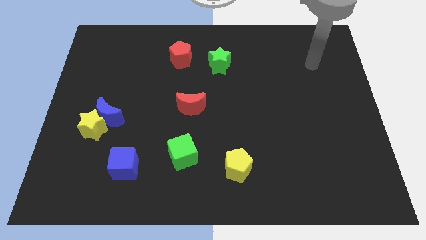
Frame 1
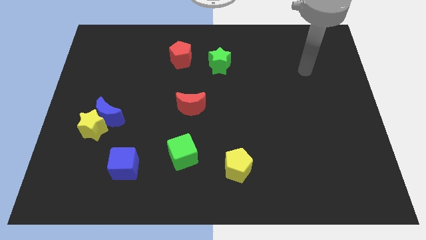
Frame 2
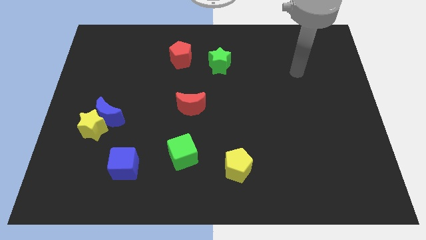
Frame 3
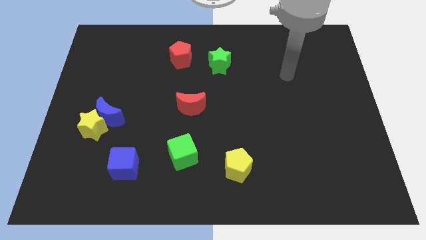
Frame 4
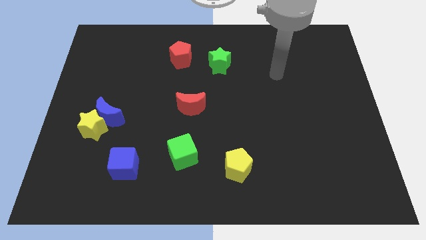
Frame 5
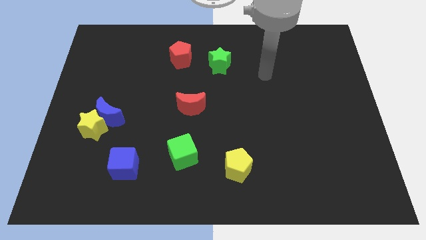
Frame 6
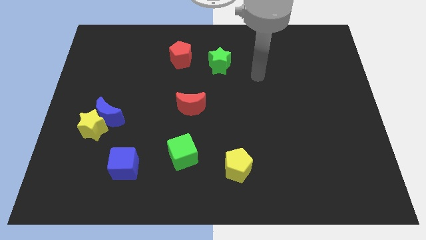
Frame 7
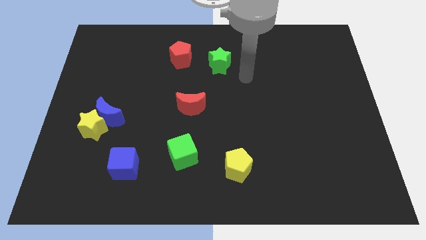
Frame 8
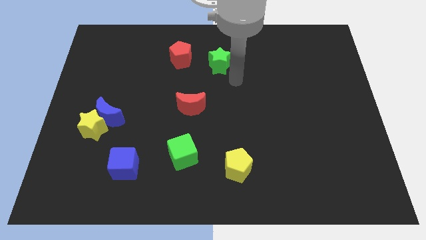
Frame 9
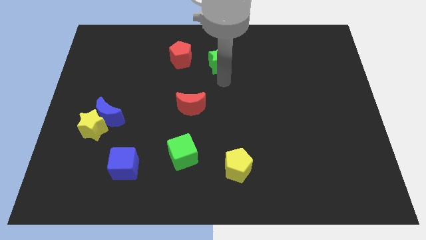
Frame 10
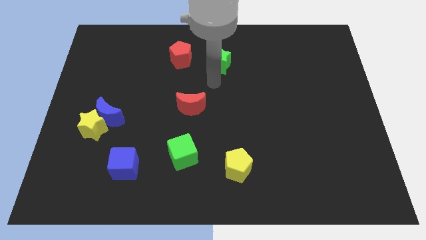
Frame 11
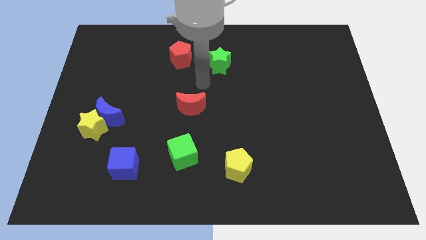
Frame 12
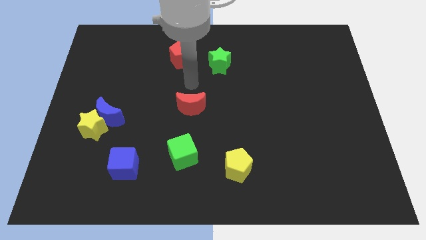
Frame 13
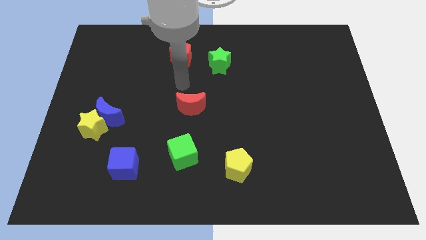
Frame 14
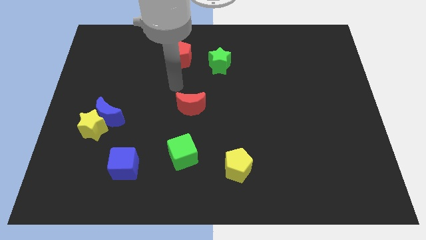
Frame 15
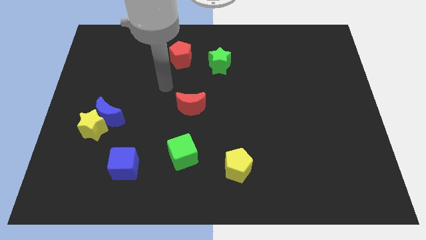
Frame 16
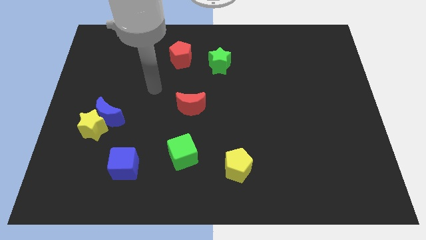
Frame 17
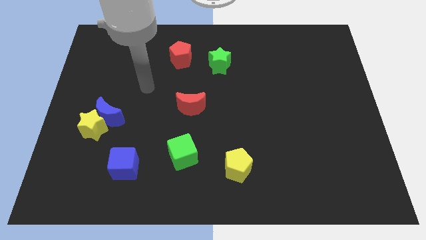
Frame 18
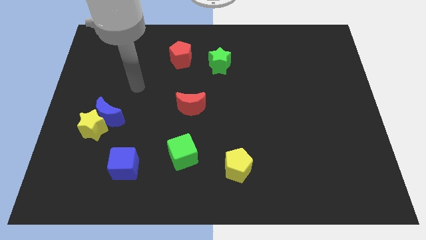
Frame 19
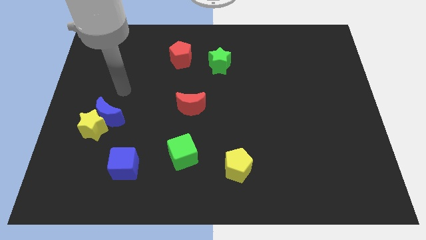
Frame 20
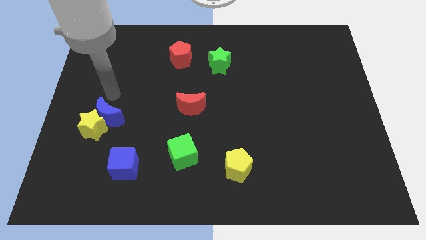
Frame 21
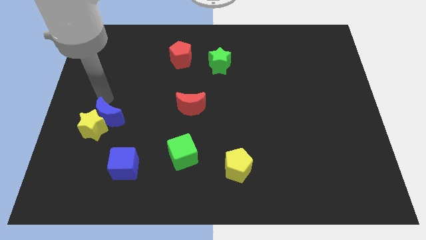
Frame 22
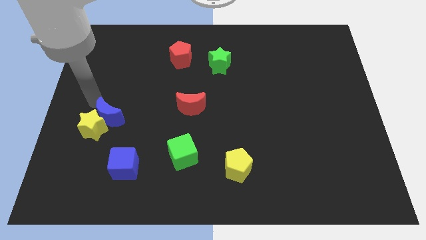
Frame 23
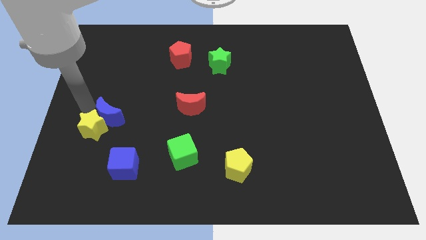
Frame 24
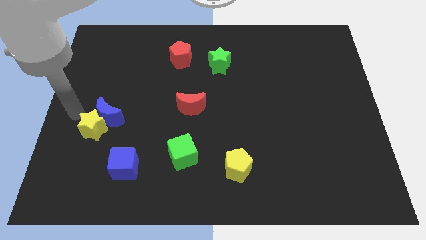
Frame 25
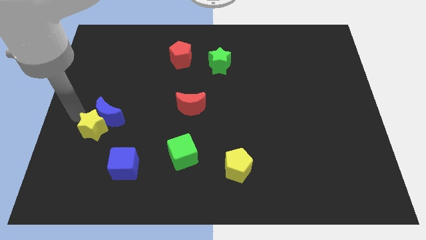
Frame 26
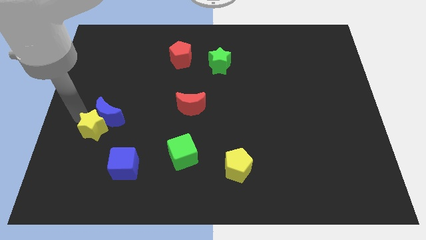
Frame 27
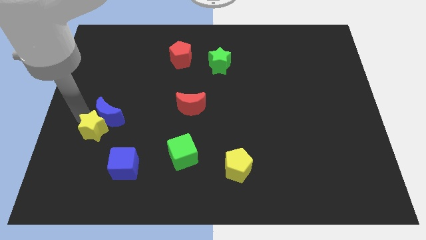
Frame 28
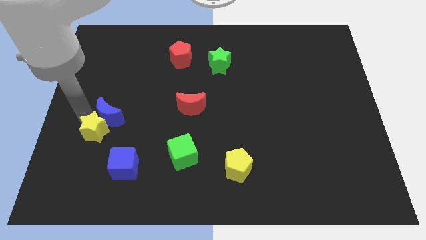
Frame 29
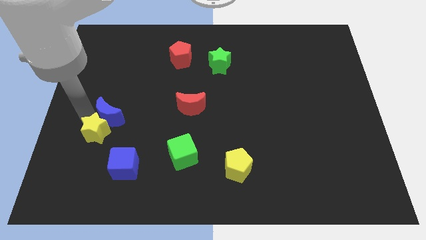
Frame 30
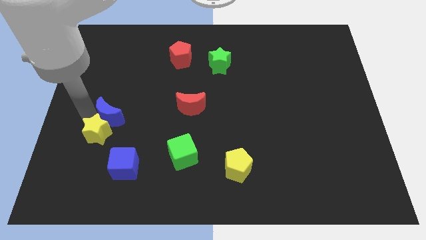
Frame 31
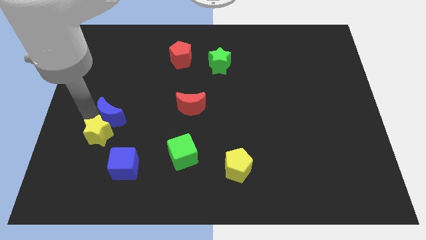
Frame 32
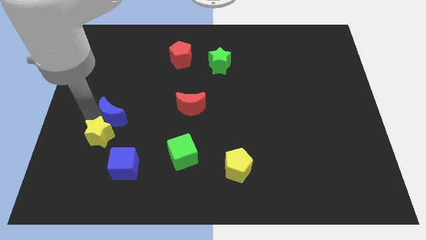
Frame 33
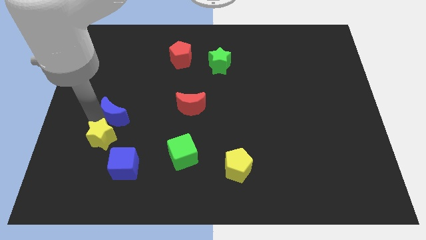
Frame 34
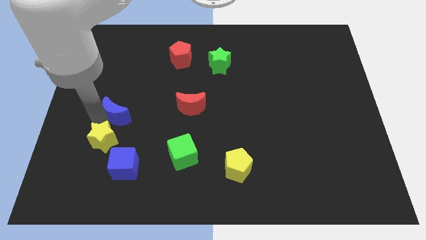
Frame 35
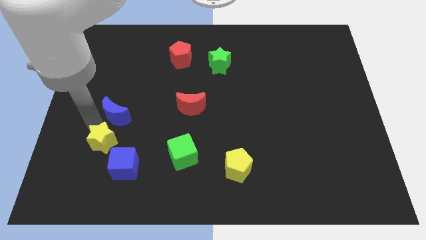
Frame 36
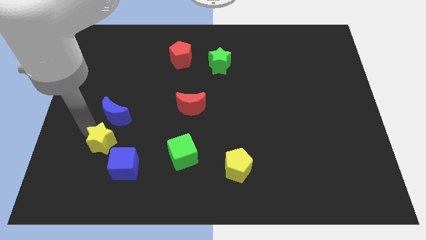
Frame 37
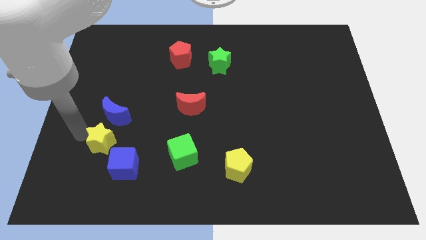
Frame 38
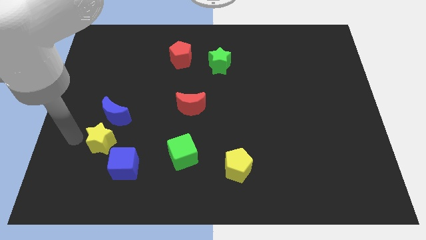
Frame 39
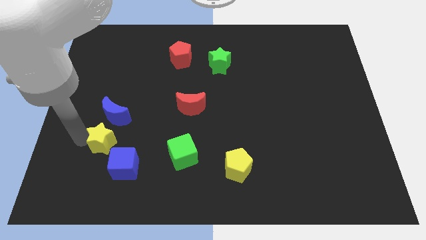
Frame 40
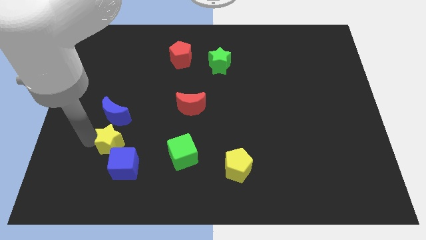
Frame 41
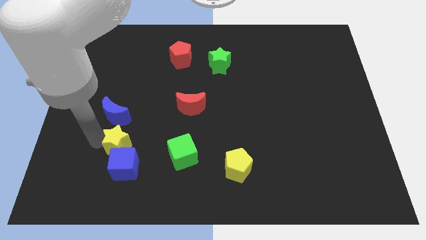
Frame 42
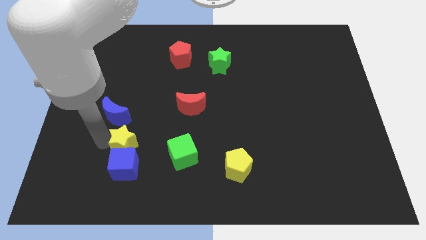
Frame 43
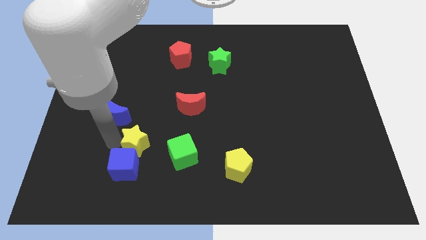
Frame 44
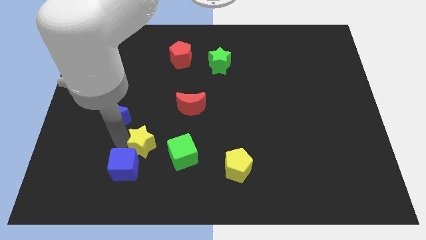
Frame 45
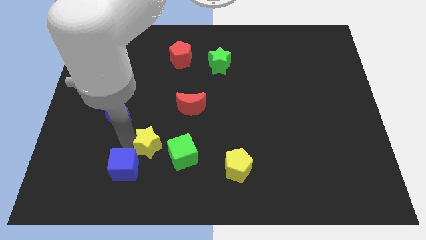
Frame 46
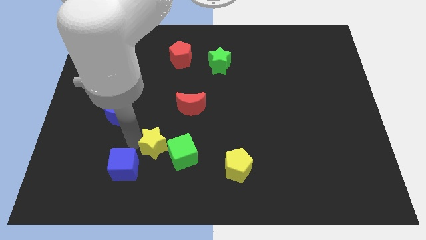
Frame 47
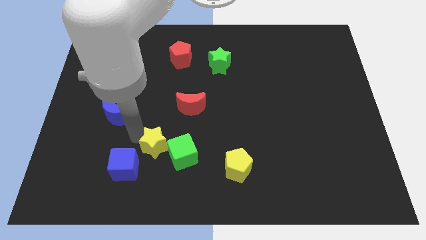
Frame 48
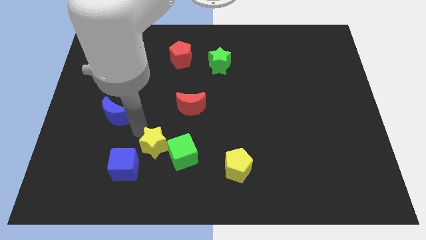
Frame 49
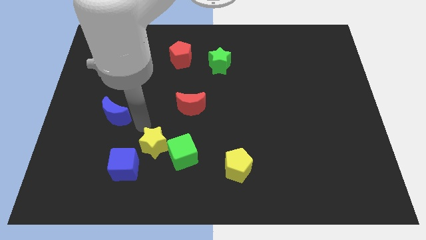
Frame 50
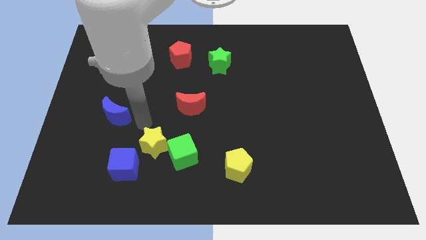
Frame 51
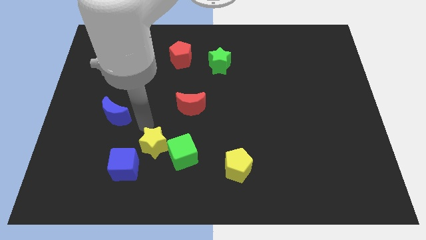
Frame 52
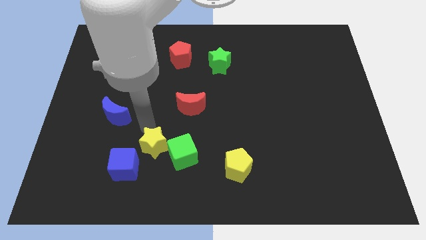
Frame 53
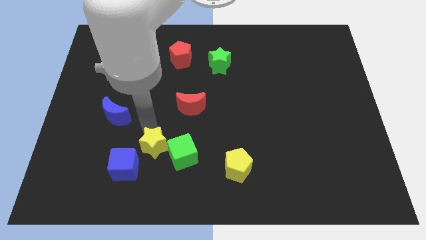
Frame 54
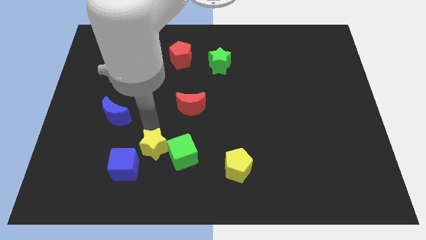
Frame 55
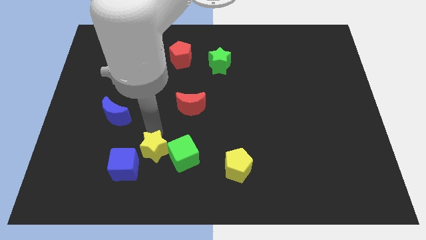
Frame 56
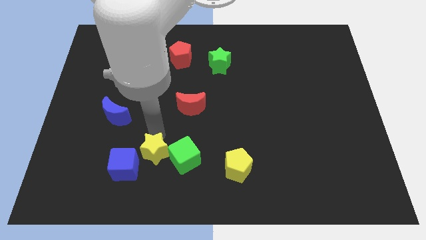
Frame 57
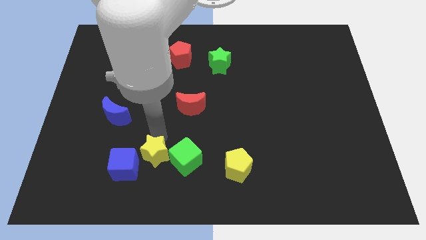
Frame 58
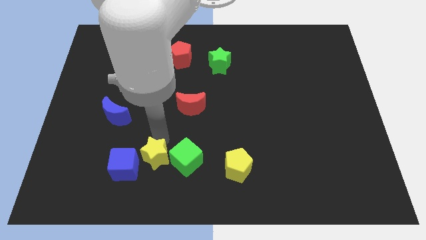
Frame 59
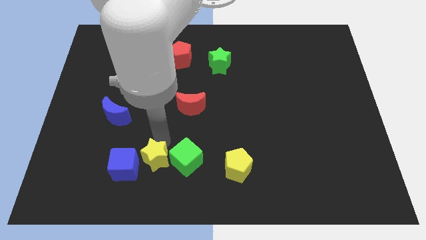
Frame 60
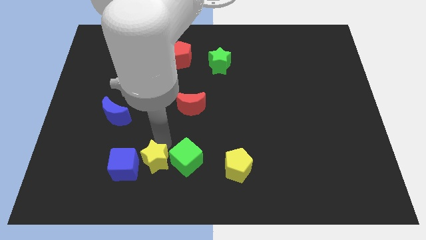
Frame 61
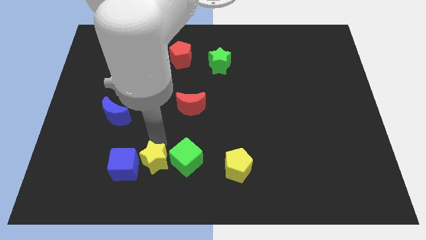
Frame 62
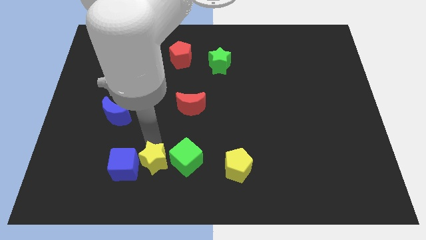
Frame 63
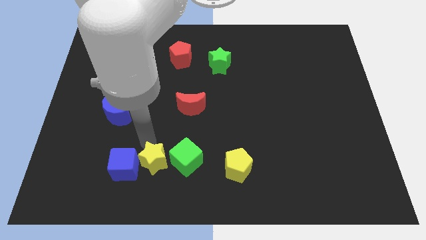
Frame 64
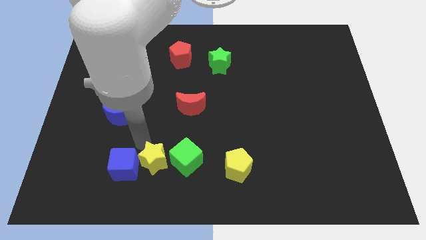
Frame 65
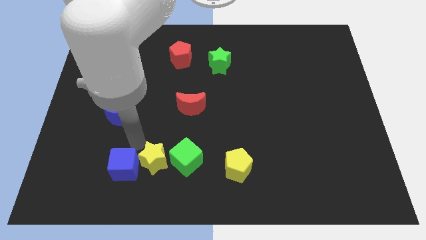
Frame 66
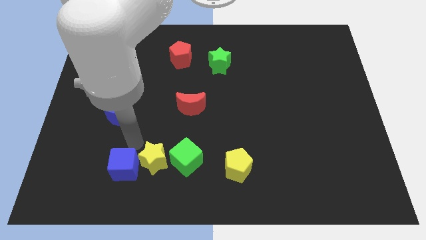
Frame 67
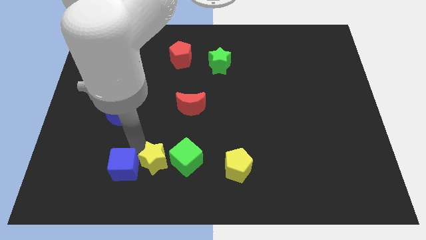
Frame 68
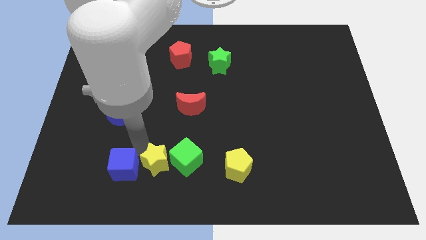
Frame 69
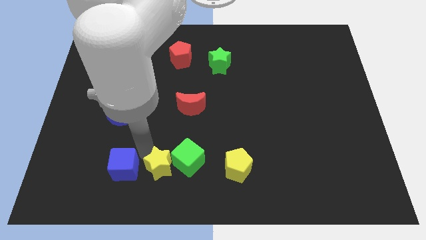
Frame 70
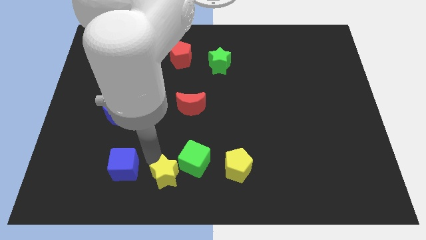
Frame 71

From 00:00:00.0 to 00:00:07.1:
move the yellow star to the bottom side
